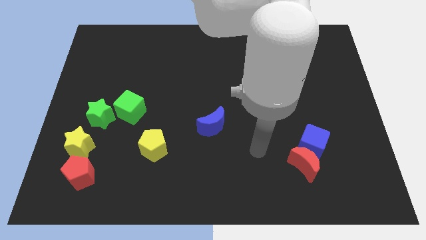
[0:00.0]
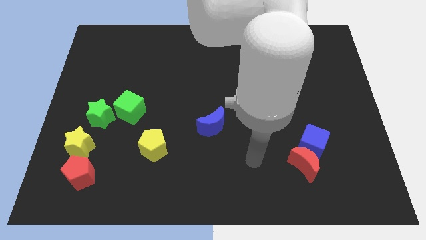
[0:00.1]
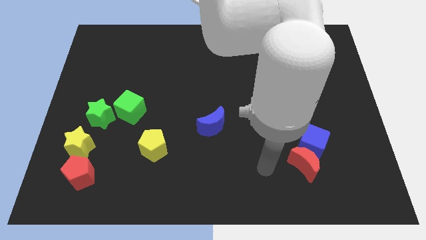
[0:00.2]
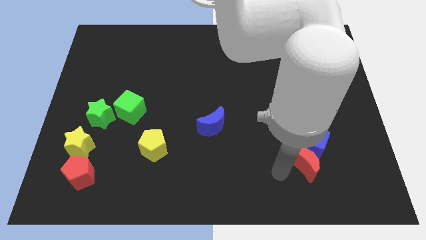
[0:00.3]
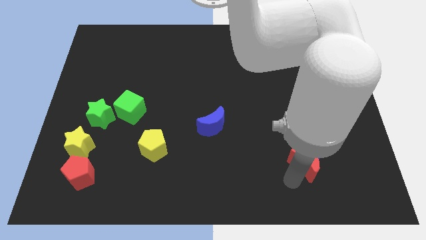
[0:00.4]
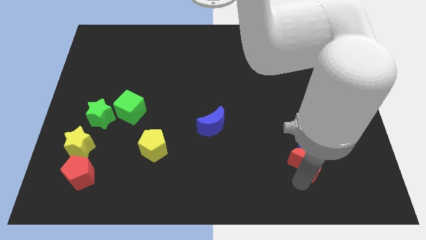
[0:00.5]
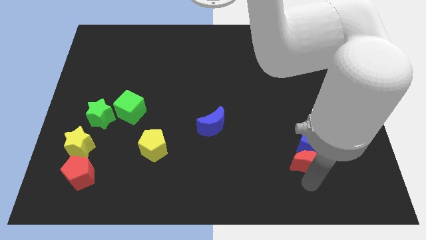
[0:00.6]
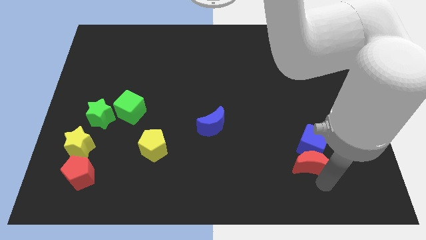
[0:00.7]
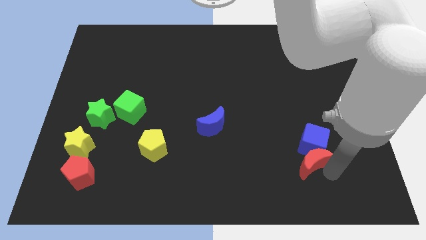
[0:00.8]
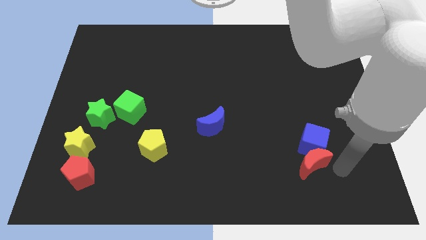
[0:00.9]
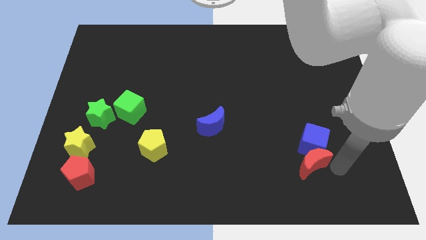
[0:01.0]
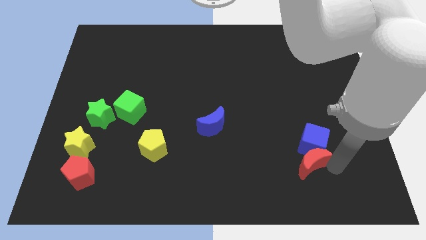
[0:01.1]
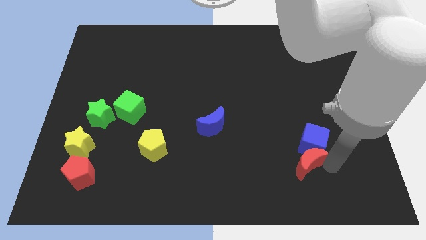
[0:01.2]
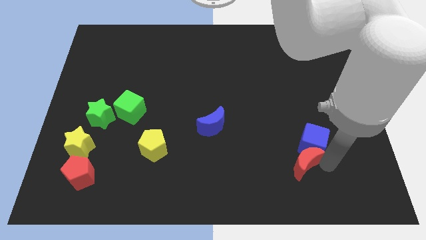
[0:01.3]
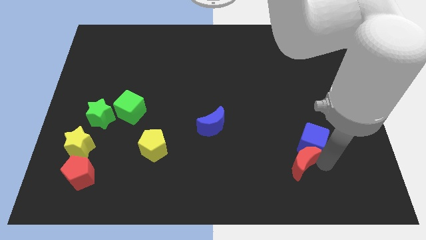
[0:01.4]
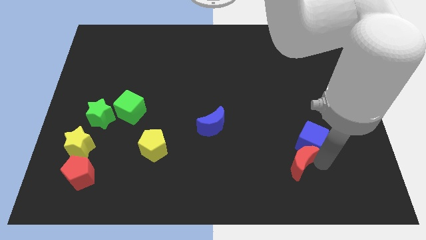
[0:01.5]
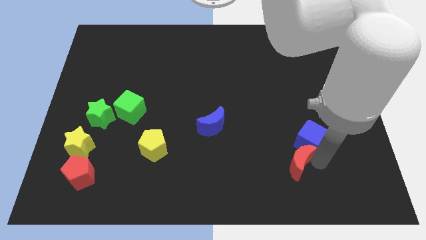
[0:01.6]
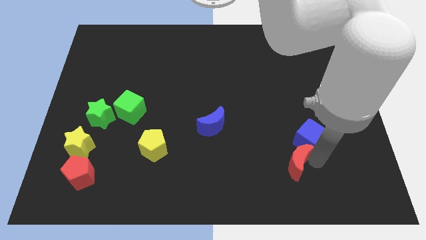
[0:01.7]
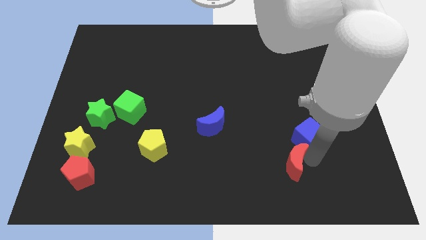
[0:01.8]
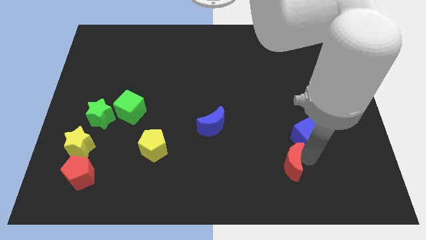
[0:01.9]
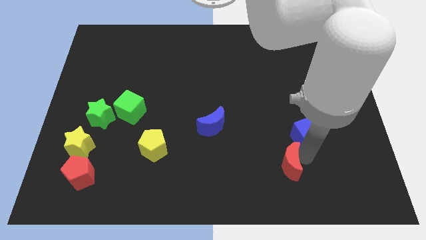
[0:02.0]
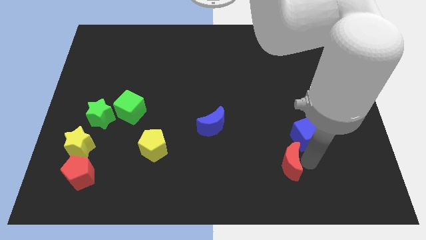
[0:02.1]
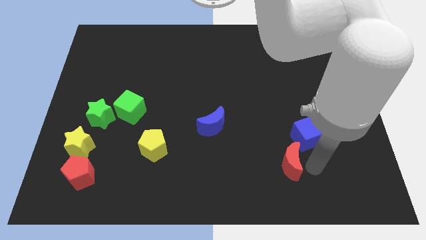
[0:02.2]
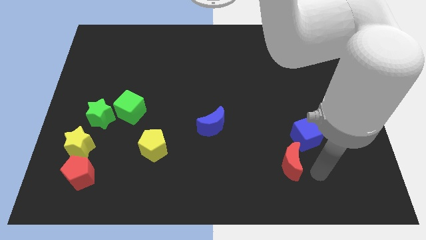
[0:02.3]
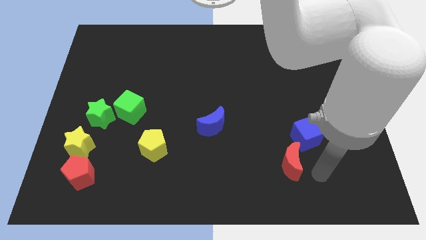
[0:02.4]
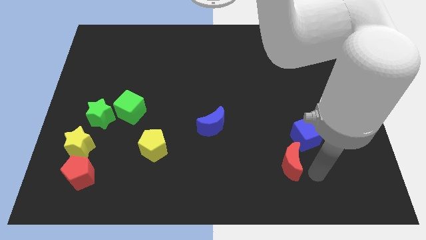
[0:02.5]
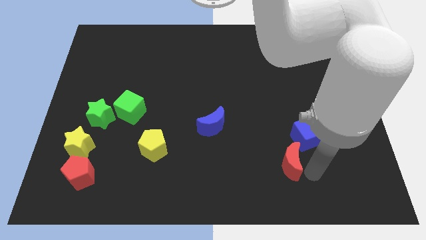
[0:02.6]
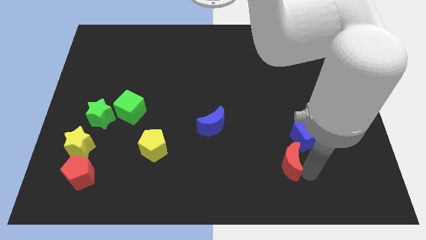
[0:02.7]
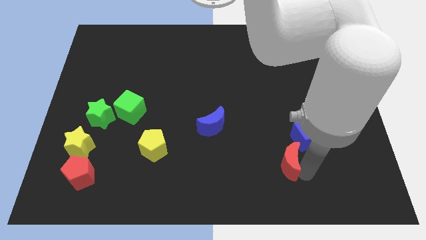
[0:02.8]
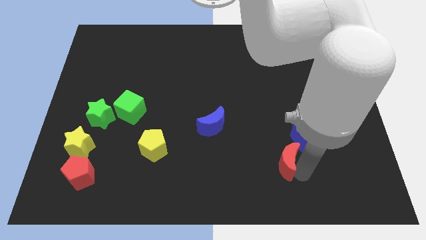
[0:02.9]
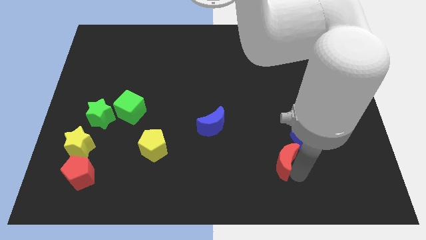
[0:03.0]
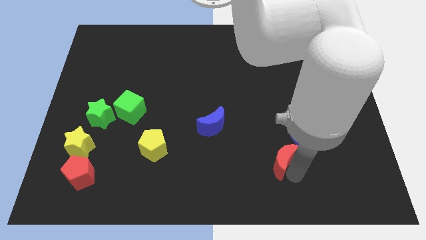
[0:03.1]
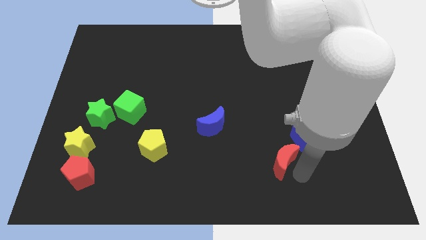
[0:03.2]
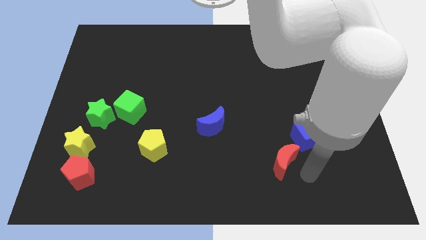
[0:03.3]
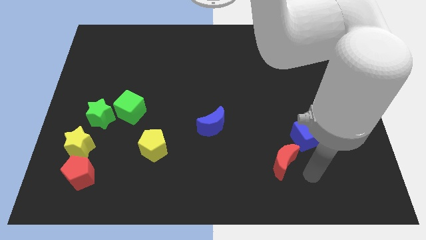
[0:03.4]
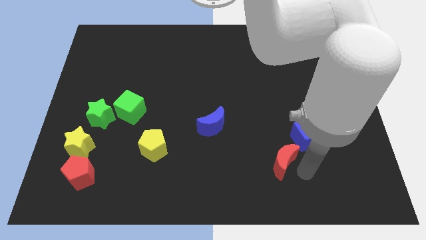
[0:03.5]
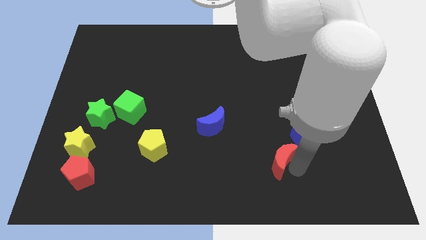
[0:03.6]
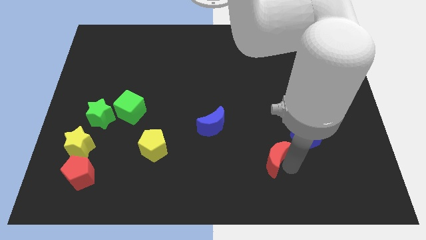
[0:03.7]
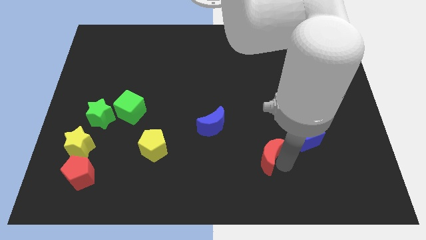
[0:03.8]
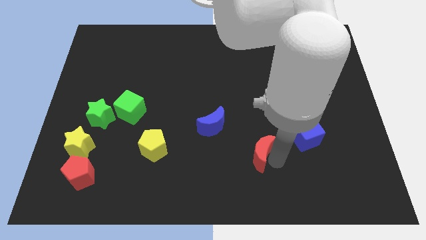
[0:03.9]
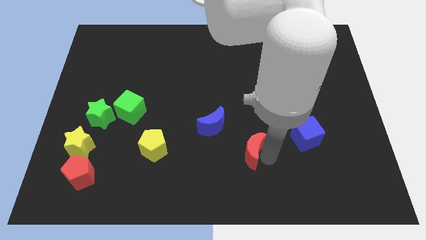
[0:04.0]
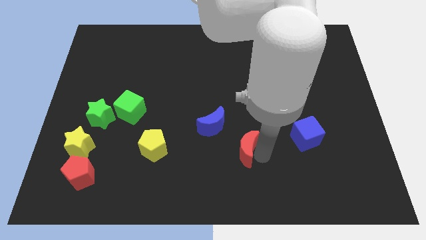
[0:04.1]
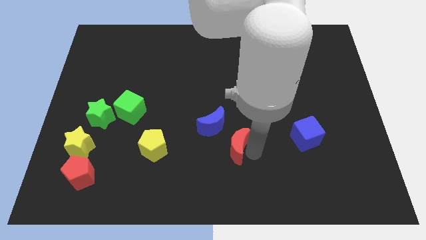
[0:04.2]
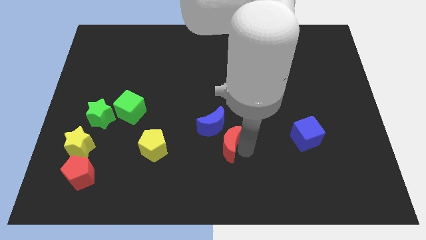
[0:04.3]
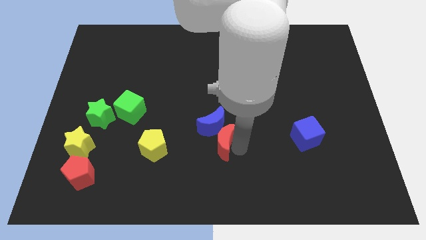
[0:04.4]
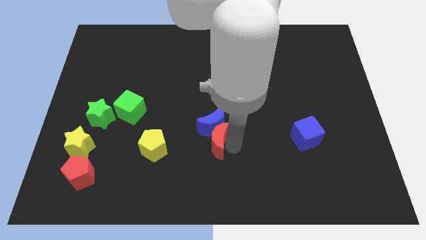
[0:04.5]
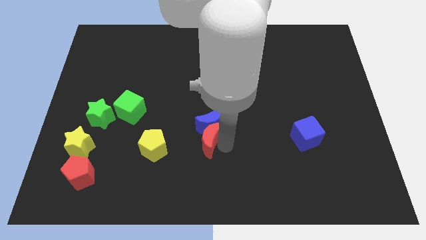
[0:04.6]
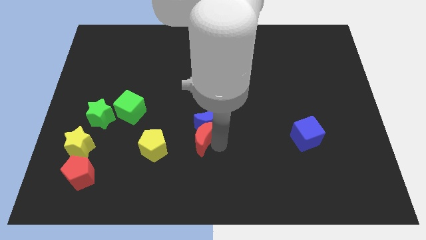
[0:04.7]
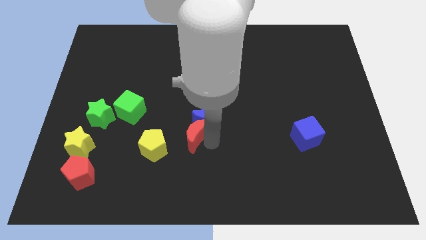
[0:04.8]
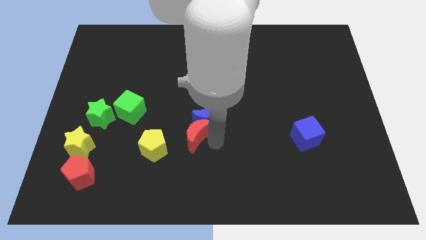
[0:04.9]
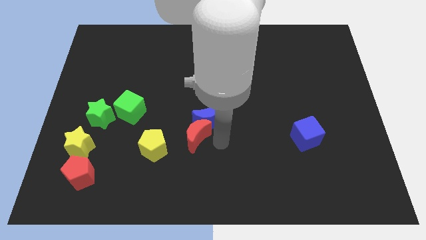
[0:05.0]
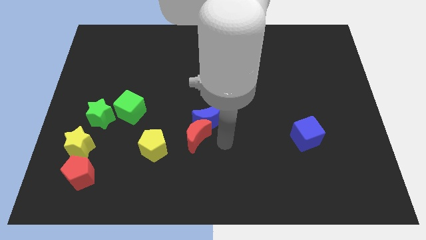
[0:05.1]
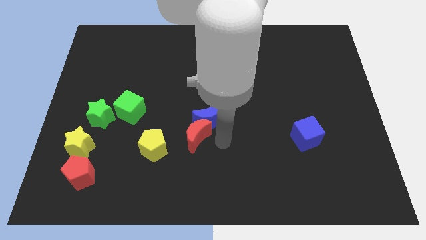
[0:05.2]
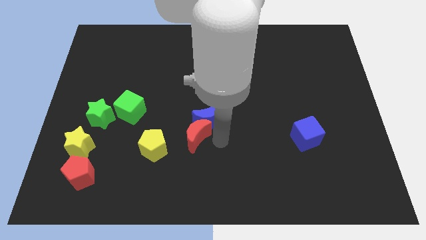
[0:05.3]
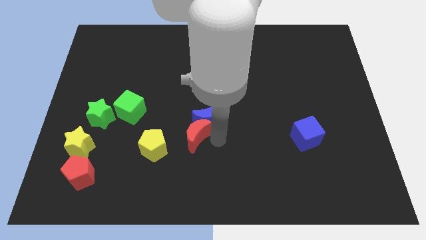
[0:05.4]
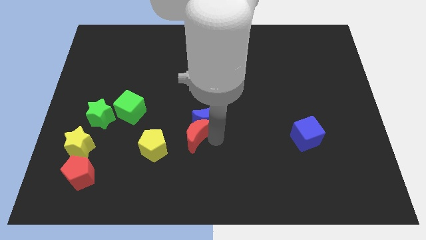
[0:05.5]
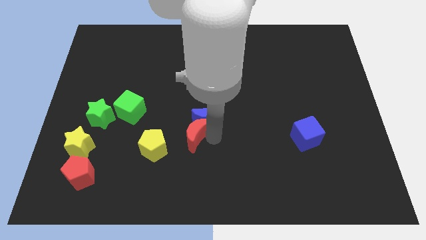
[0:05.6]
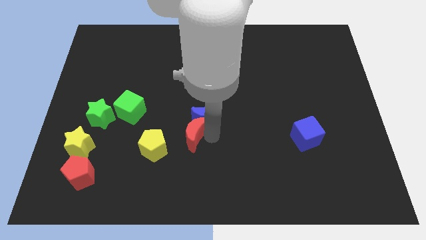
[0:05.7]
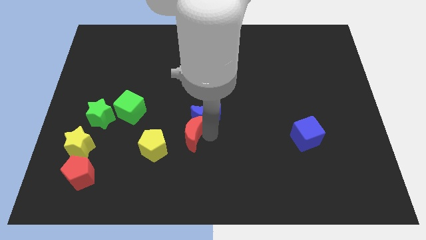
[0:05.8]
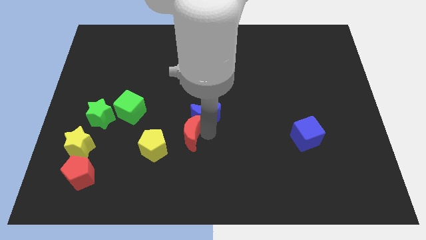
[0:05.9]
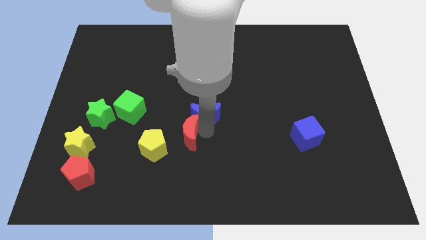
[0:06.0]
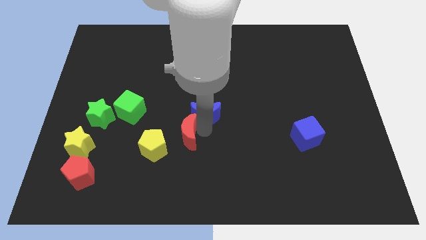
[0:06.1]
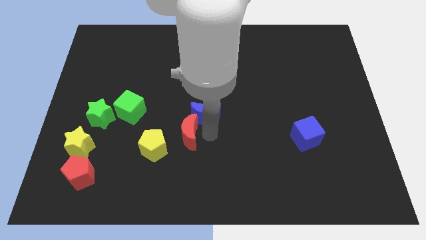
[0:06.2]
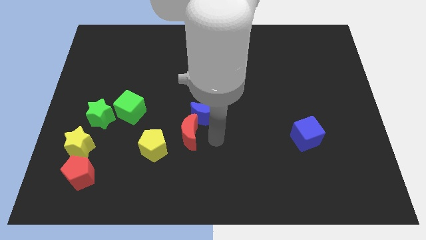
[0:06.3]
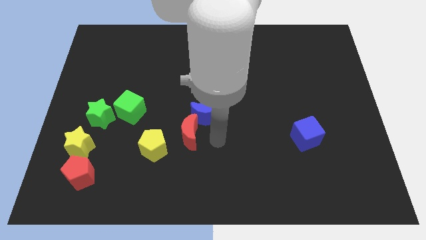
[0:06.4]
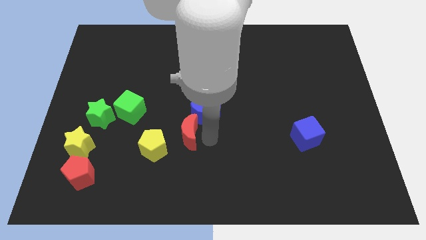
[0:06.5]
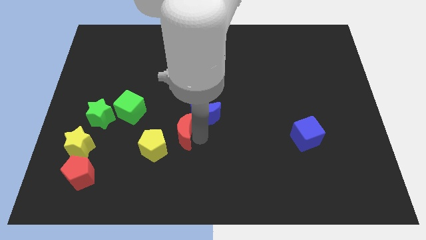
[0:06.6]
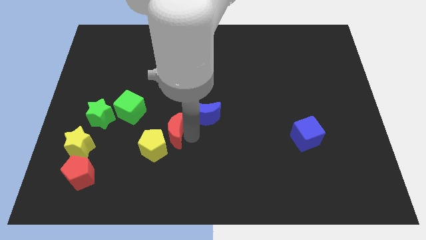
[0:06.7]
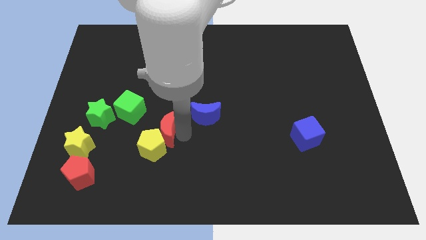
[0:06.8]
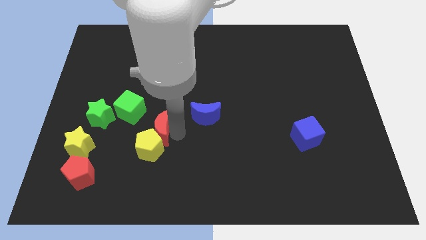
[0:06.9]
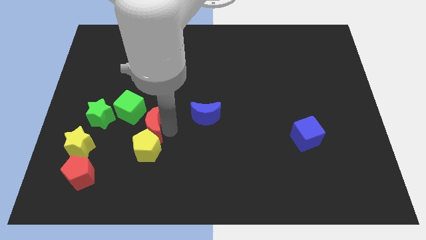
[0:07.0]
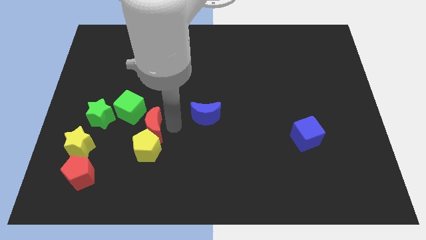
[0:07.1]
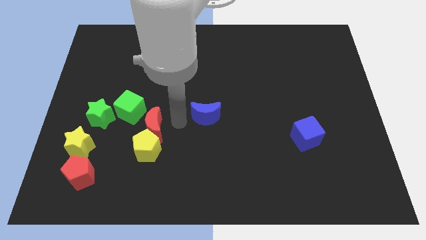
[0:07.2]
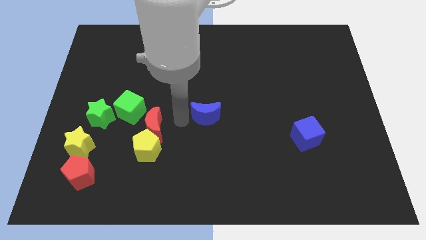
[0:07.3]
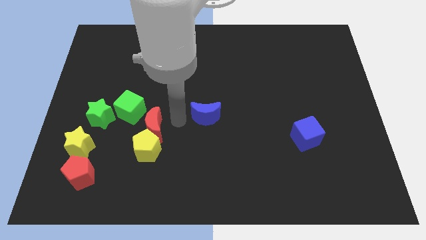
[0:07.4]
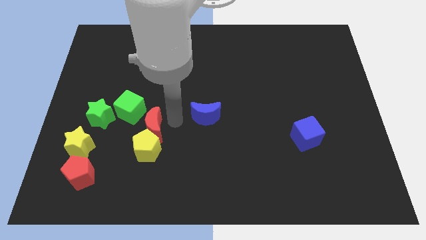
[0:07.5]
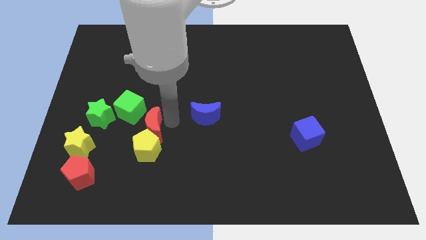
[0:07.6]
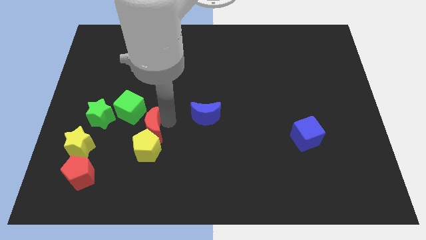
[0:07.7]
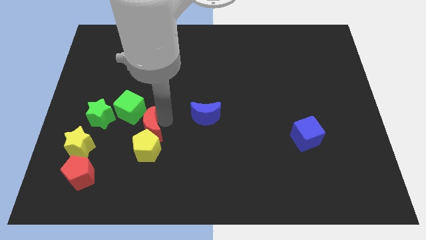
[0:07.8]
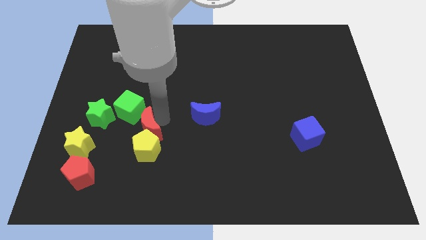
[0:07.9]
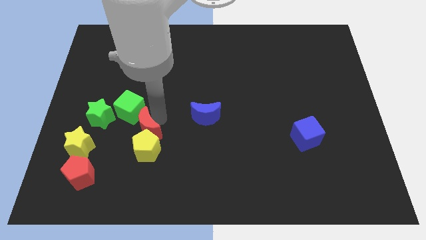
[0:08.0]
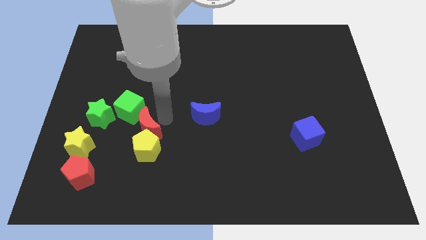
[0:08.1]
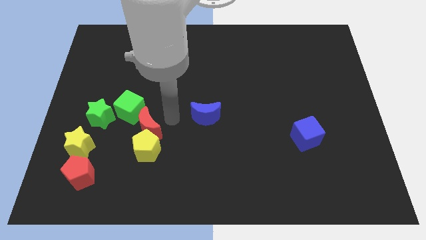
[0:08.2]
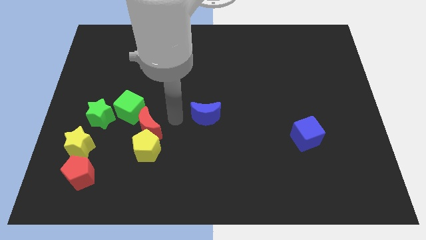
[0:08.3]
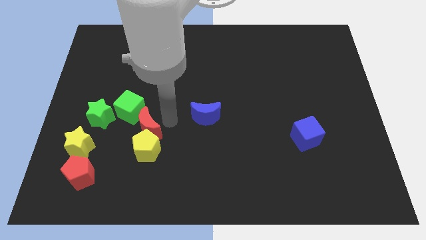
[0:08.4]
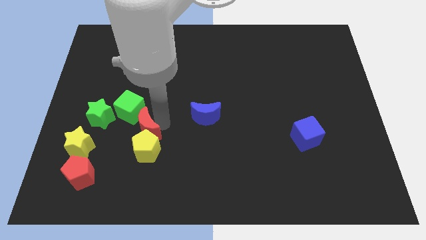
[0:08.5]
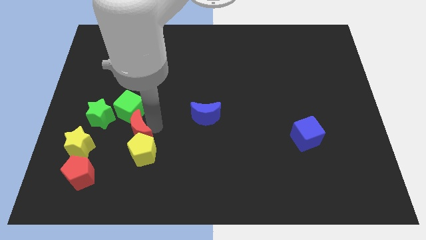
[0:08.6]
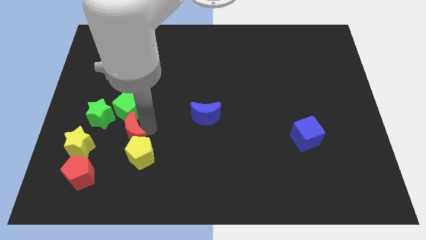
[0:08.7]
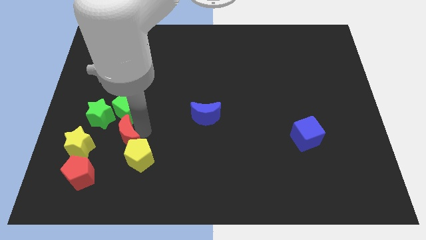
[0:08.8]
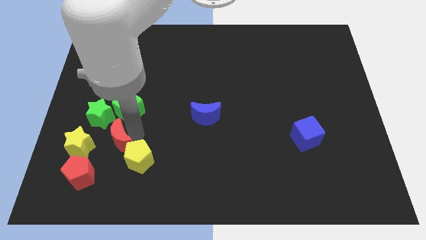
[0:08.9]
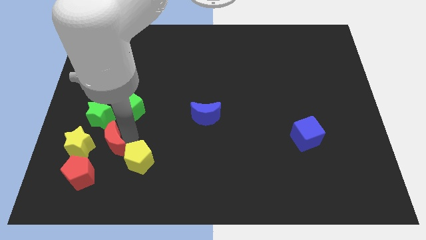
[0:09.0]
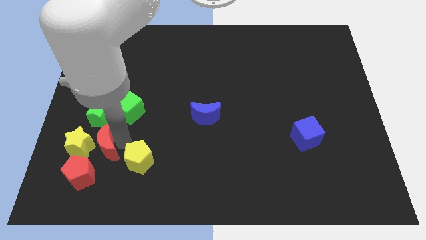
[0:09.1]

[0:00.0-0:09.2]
slide the red moon next to the yellow star
